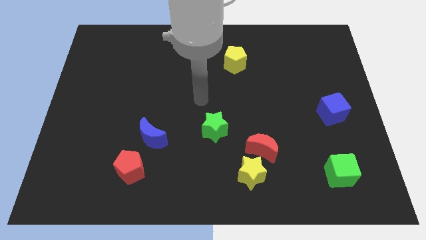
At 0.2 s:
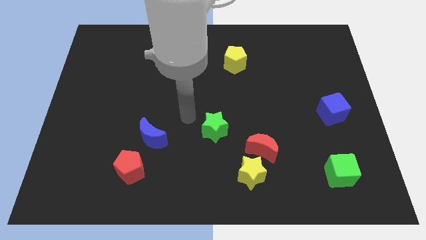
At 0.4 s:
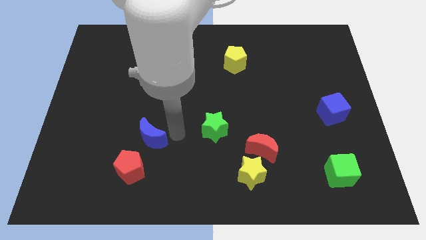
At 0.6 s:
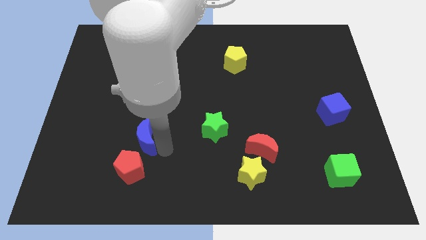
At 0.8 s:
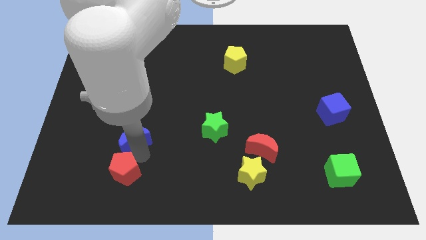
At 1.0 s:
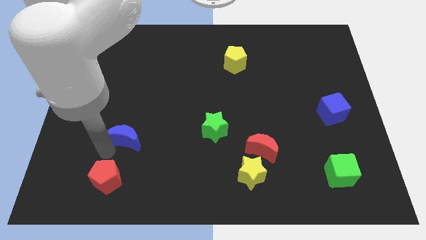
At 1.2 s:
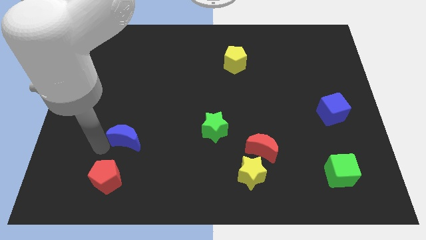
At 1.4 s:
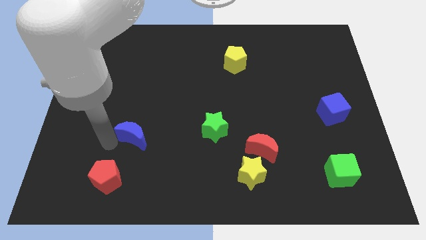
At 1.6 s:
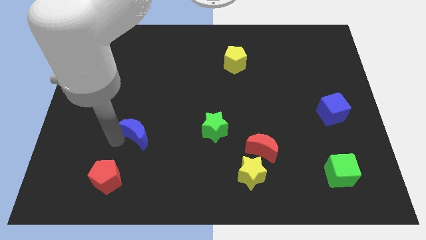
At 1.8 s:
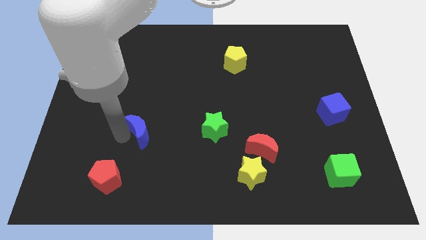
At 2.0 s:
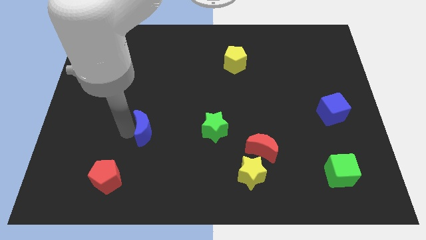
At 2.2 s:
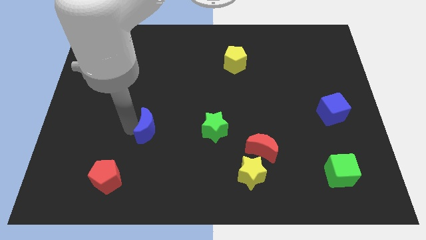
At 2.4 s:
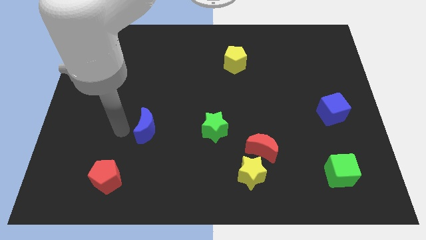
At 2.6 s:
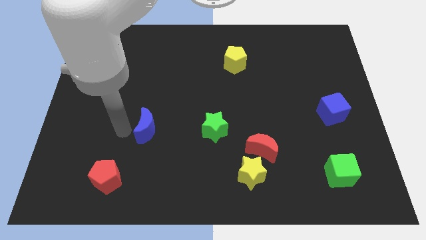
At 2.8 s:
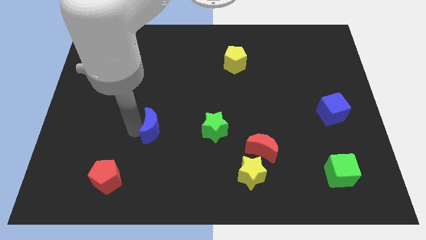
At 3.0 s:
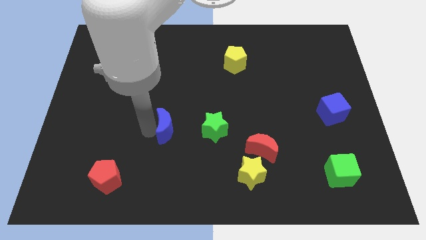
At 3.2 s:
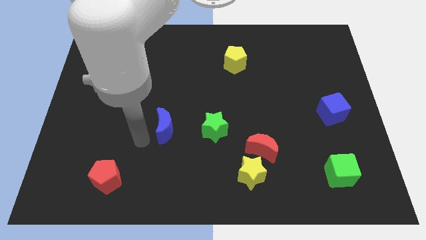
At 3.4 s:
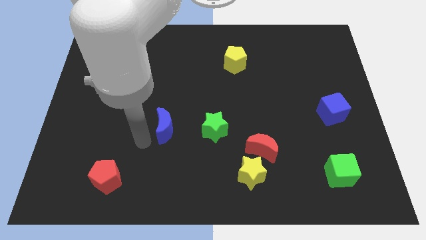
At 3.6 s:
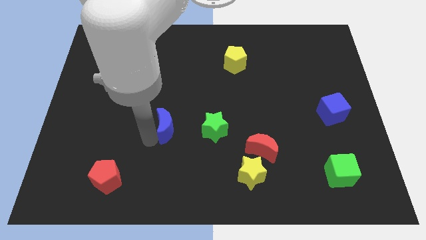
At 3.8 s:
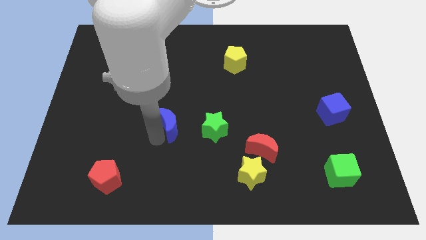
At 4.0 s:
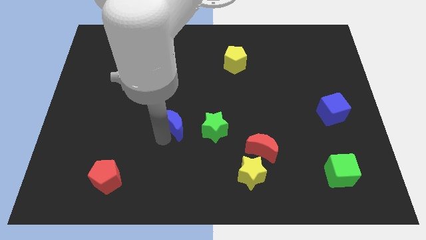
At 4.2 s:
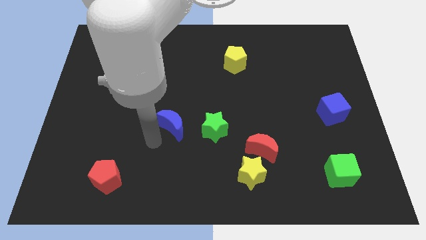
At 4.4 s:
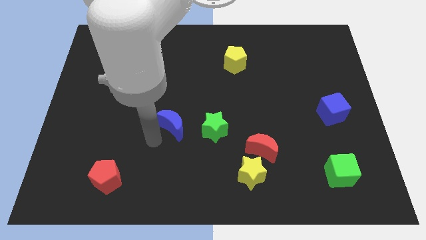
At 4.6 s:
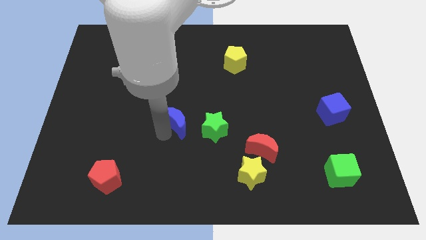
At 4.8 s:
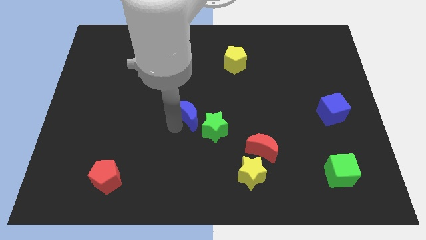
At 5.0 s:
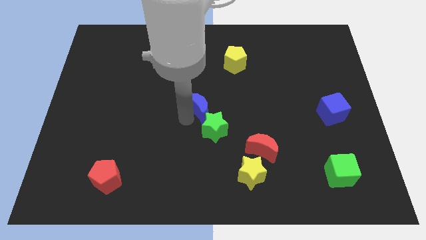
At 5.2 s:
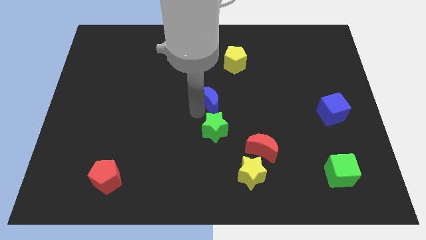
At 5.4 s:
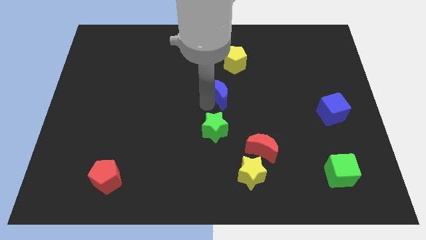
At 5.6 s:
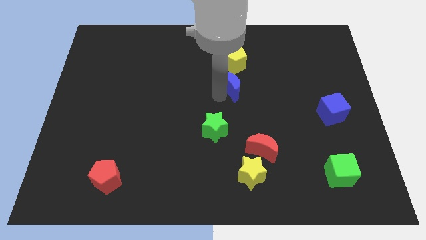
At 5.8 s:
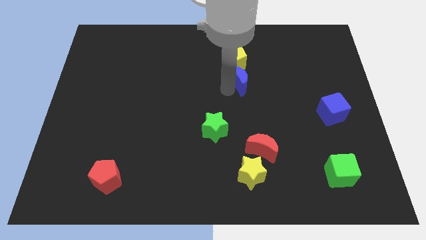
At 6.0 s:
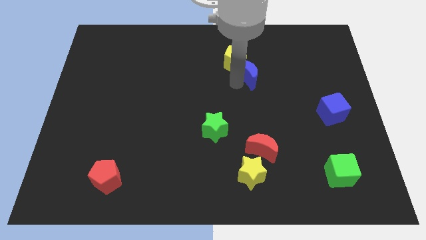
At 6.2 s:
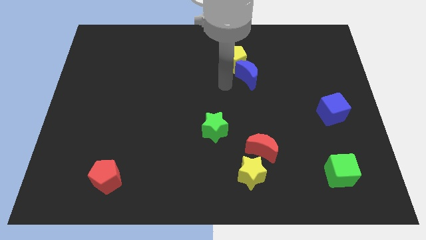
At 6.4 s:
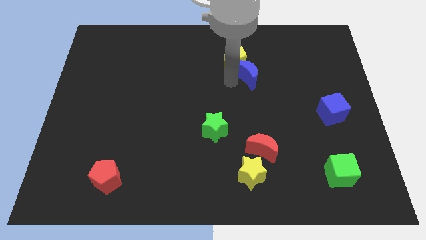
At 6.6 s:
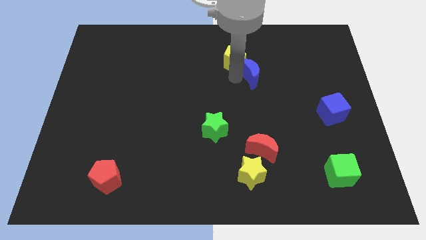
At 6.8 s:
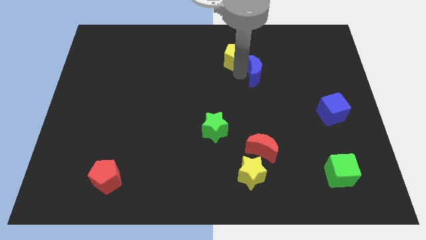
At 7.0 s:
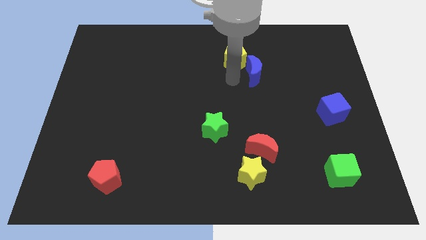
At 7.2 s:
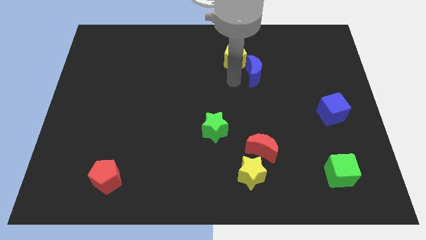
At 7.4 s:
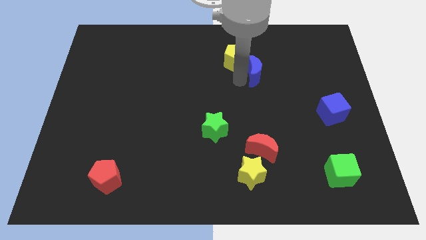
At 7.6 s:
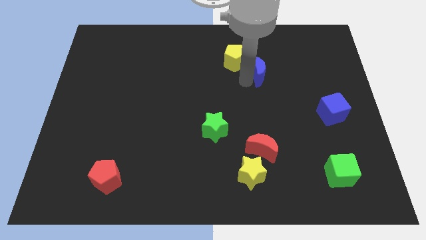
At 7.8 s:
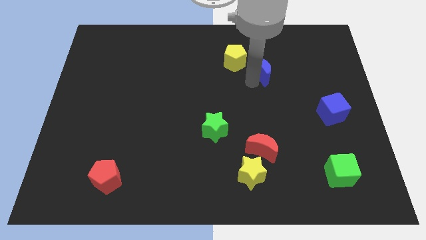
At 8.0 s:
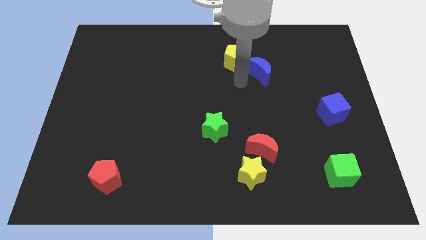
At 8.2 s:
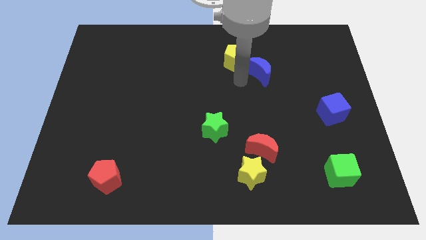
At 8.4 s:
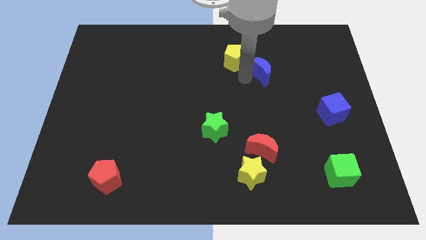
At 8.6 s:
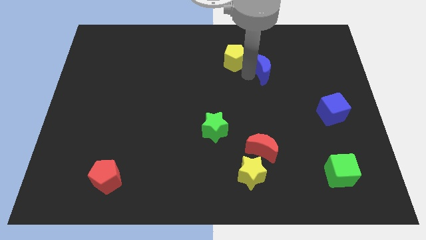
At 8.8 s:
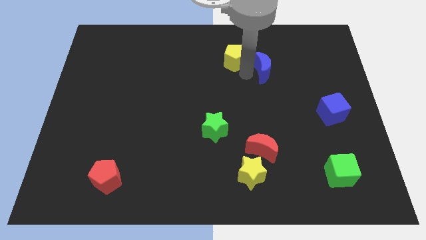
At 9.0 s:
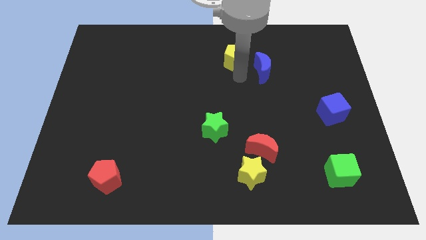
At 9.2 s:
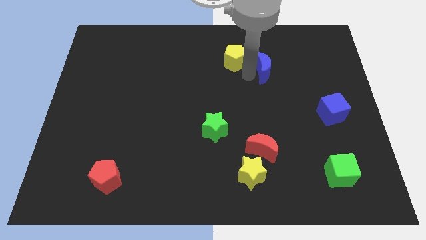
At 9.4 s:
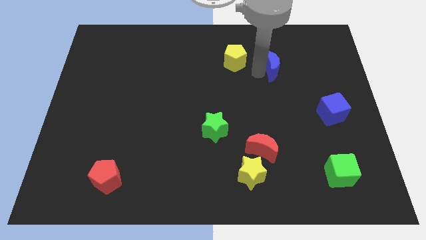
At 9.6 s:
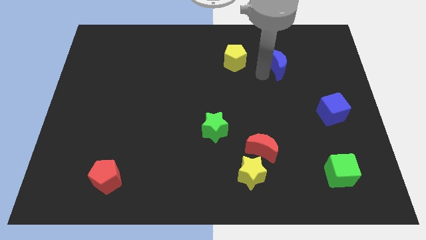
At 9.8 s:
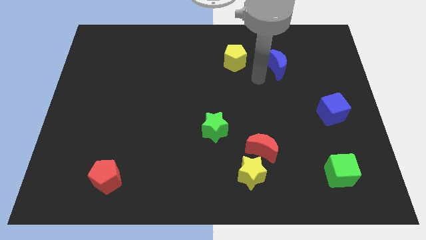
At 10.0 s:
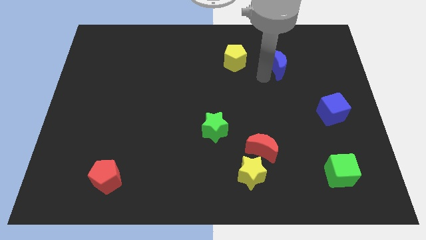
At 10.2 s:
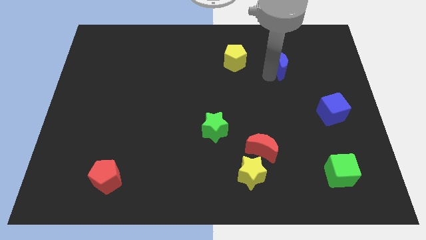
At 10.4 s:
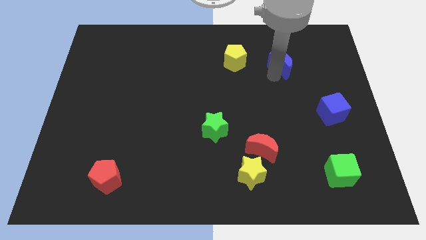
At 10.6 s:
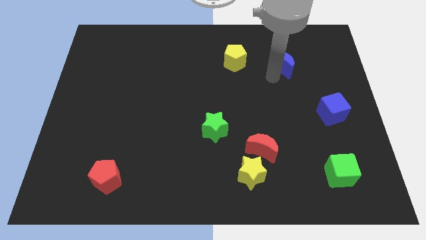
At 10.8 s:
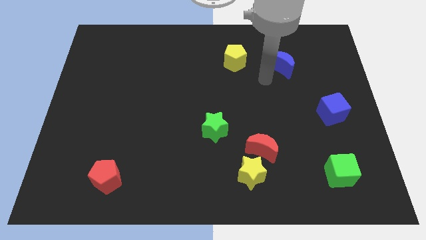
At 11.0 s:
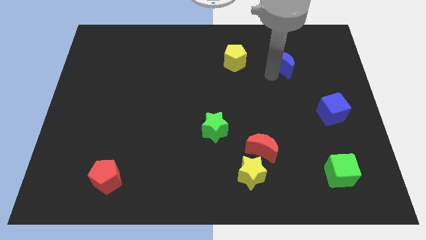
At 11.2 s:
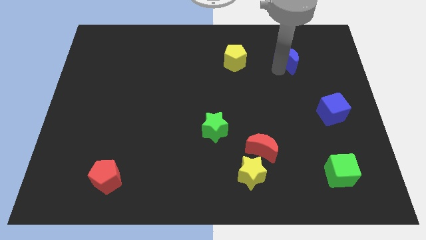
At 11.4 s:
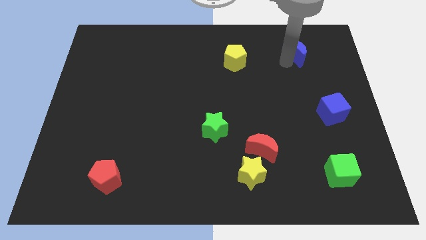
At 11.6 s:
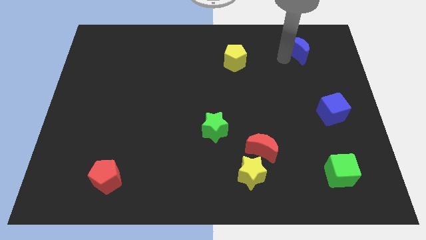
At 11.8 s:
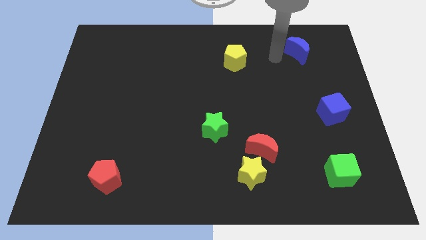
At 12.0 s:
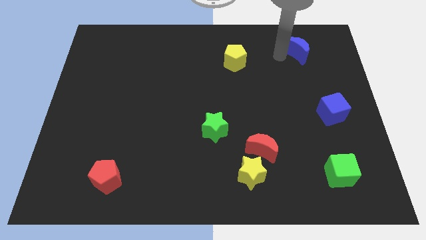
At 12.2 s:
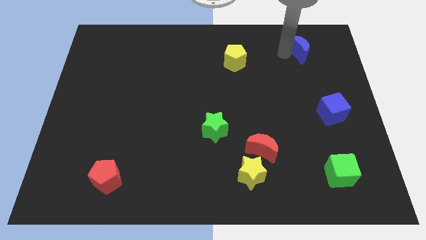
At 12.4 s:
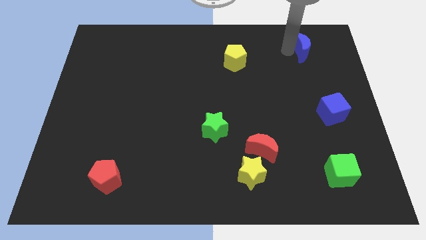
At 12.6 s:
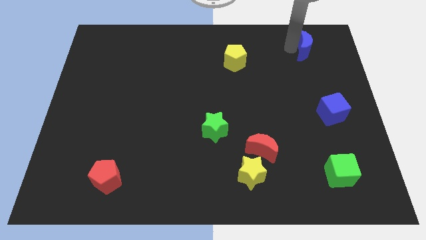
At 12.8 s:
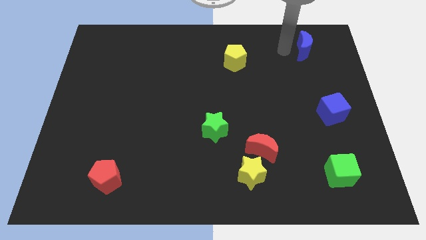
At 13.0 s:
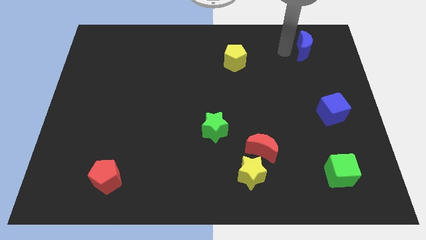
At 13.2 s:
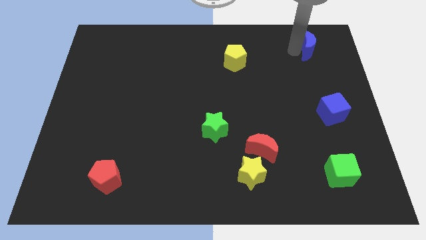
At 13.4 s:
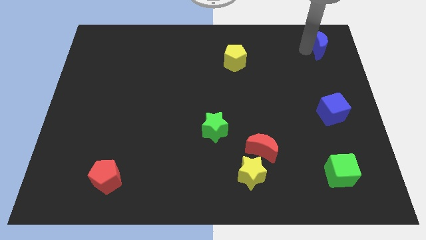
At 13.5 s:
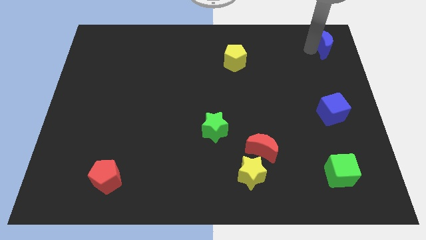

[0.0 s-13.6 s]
put the blue moon to the upper right corner

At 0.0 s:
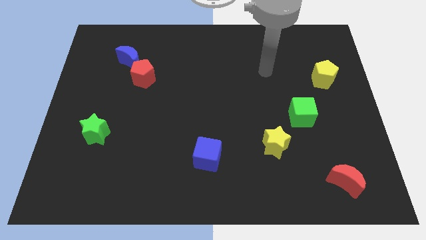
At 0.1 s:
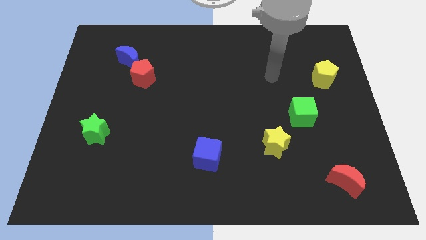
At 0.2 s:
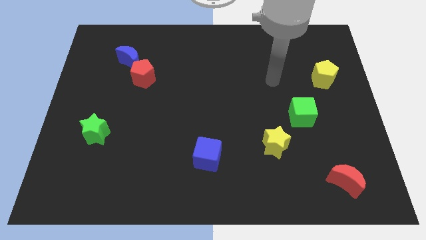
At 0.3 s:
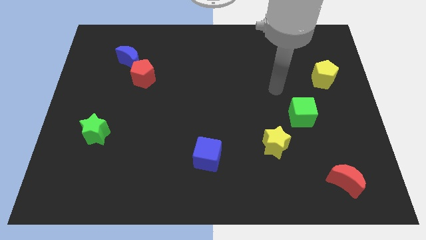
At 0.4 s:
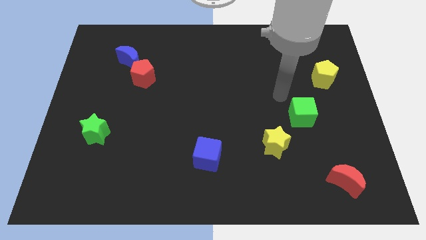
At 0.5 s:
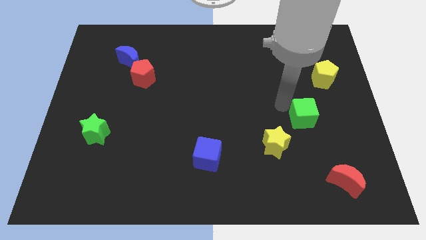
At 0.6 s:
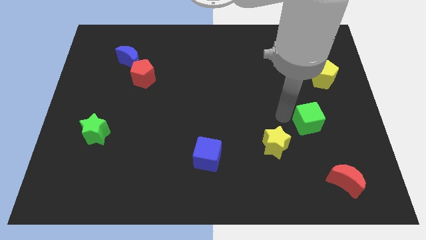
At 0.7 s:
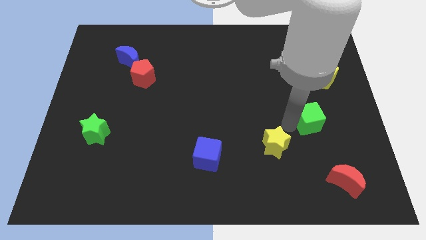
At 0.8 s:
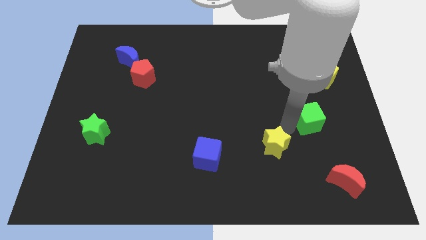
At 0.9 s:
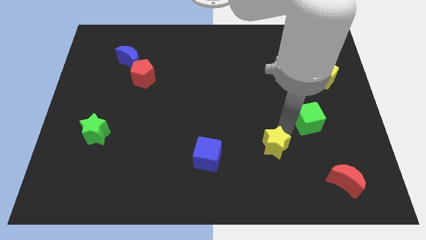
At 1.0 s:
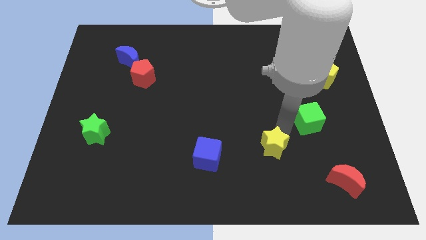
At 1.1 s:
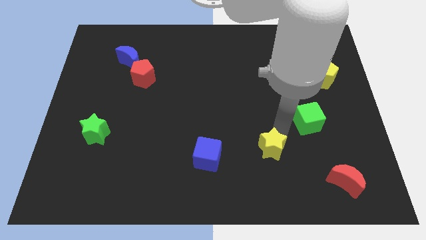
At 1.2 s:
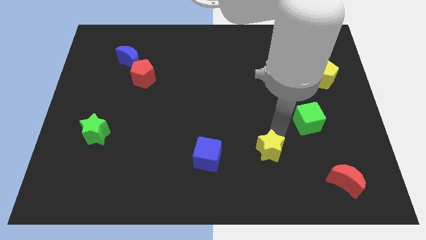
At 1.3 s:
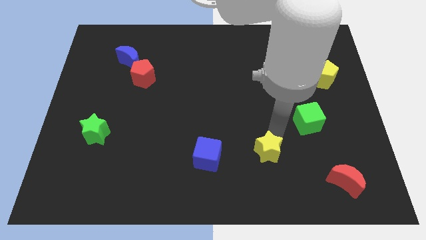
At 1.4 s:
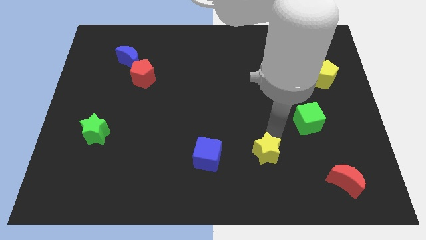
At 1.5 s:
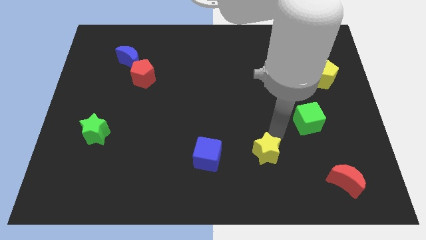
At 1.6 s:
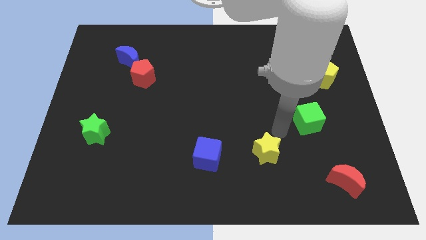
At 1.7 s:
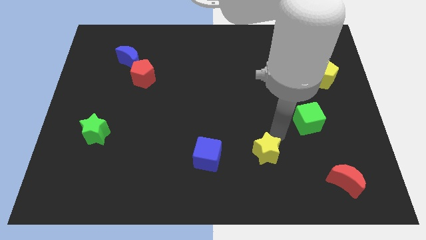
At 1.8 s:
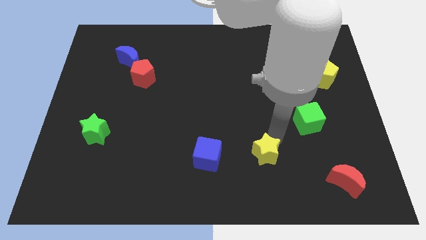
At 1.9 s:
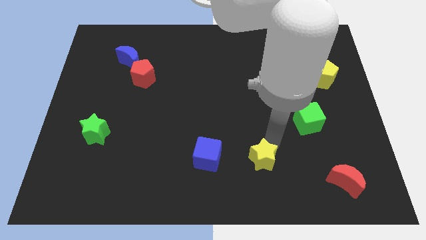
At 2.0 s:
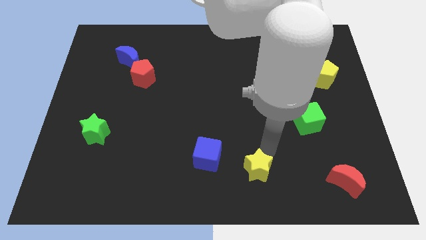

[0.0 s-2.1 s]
put the yellow star to the bottom side
